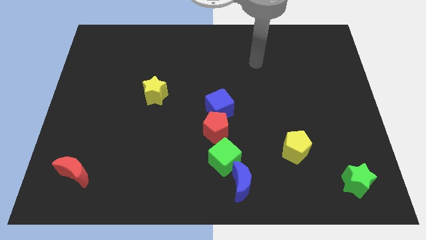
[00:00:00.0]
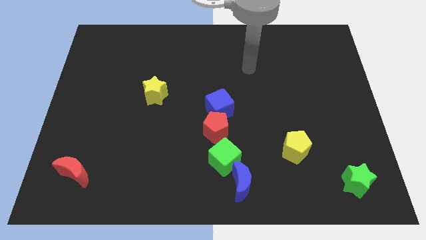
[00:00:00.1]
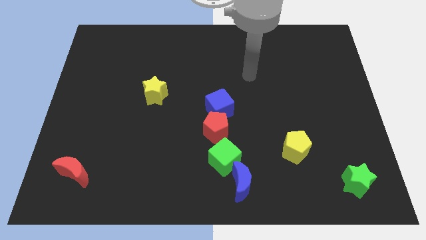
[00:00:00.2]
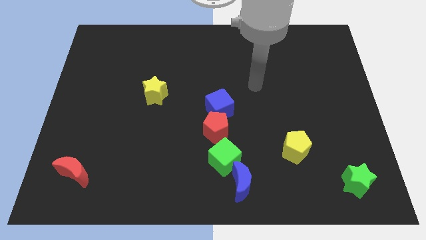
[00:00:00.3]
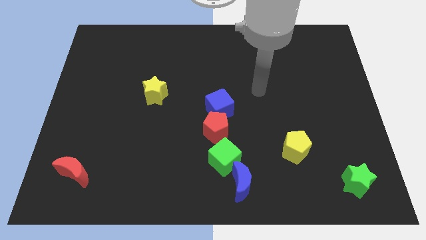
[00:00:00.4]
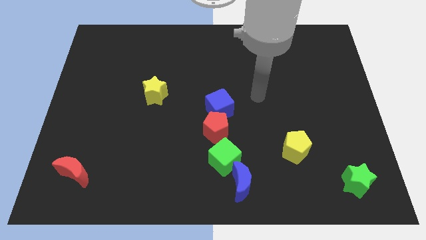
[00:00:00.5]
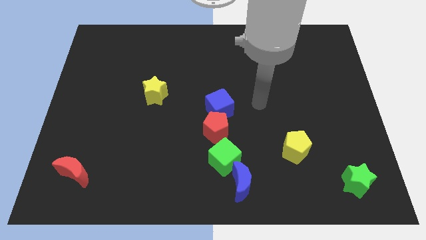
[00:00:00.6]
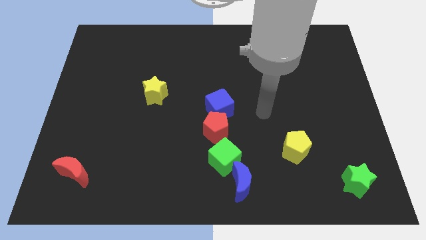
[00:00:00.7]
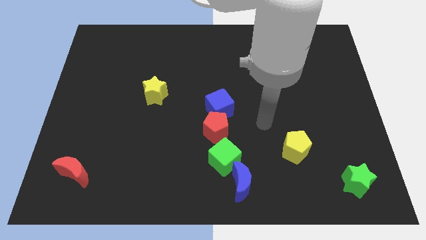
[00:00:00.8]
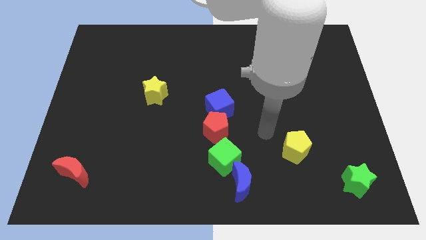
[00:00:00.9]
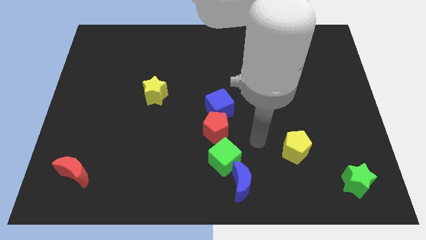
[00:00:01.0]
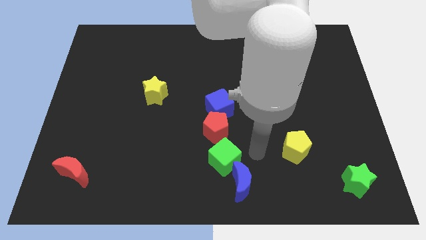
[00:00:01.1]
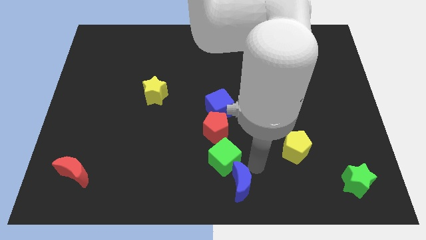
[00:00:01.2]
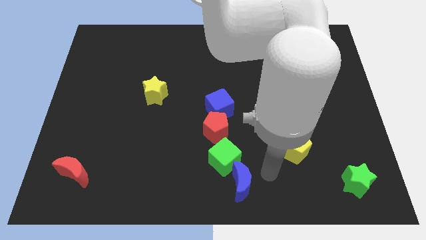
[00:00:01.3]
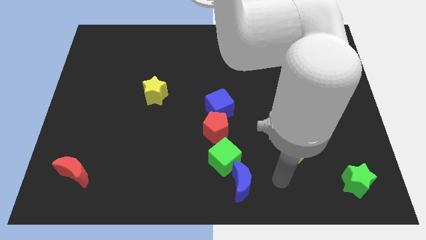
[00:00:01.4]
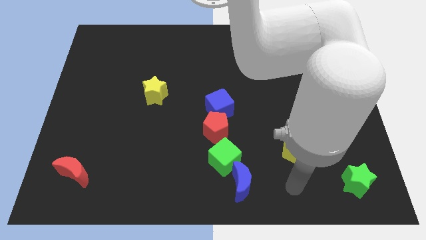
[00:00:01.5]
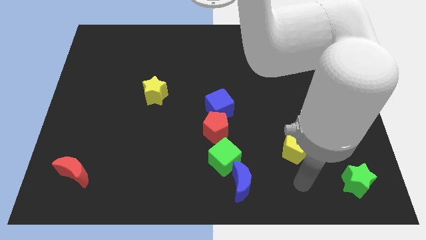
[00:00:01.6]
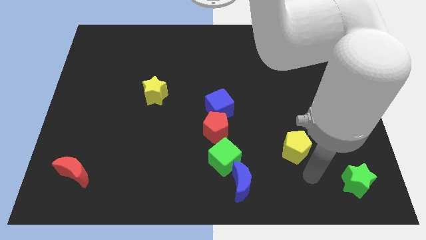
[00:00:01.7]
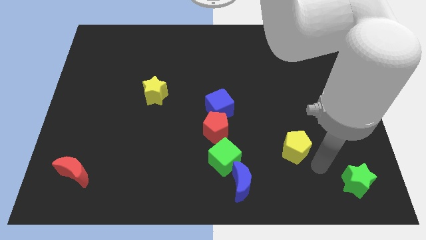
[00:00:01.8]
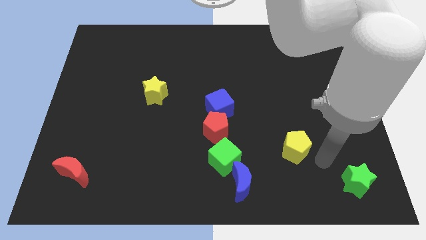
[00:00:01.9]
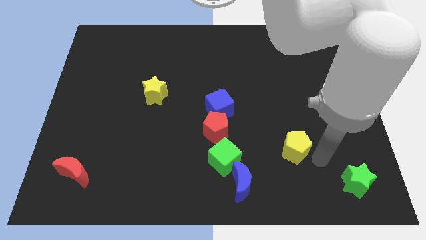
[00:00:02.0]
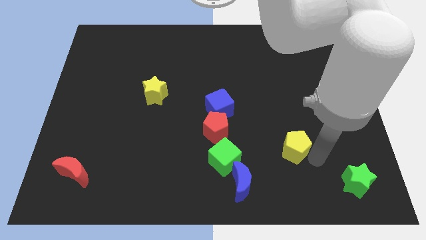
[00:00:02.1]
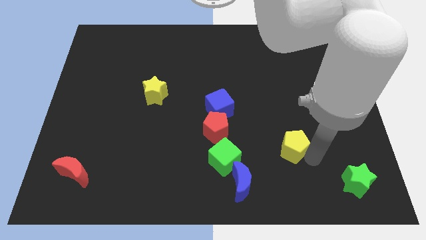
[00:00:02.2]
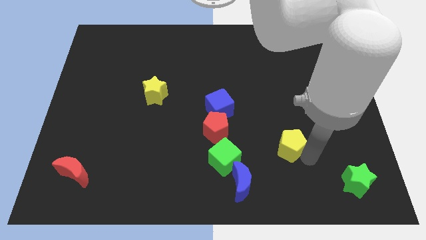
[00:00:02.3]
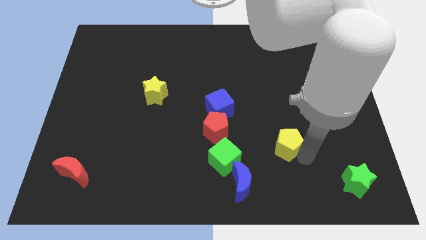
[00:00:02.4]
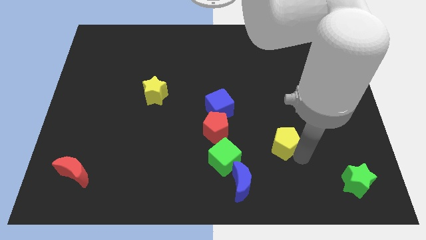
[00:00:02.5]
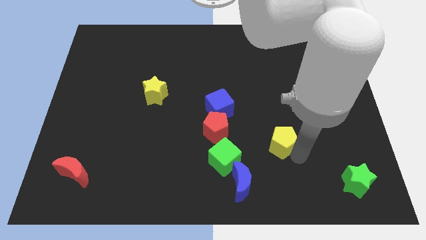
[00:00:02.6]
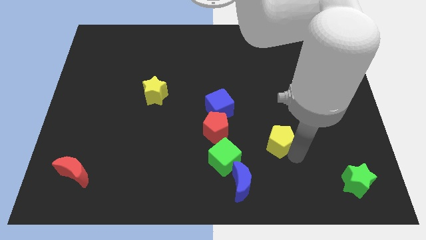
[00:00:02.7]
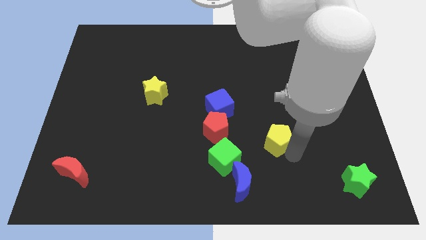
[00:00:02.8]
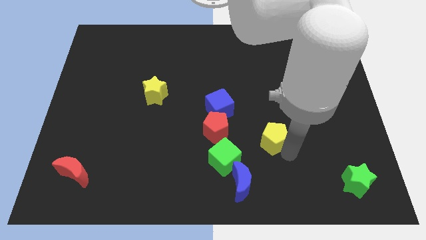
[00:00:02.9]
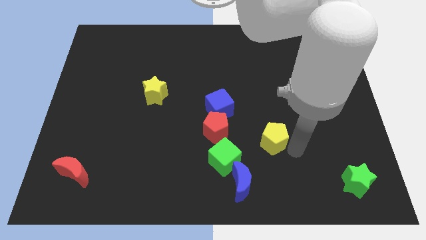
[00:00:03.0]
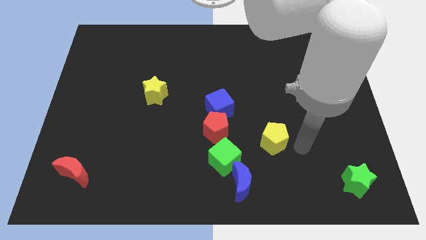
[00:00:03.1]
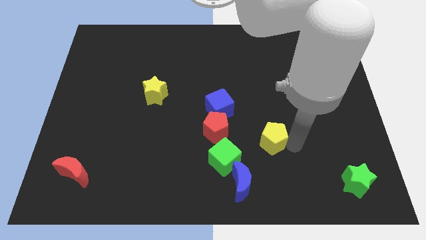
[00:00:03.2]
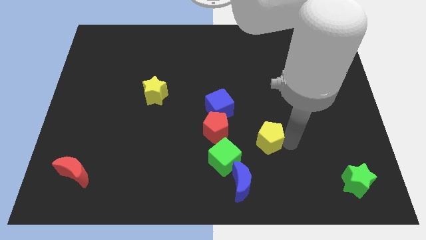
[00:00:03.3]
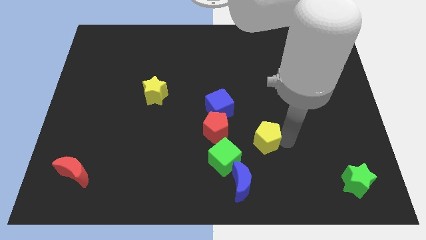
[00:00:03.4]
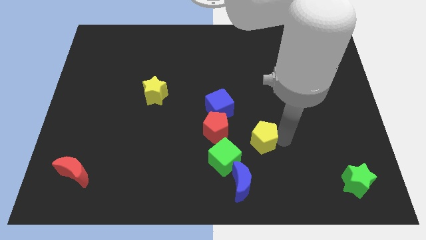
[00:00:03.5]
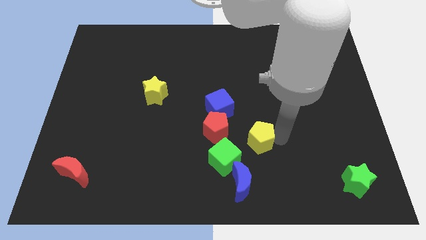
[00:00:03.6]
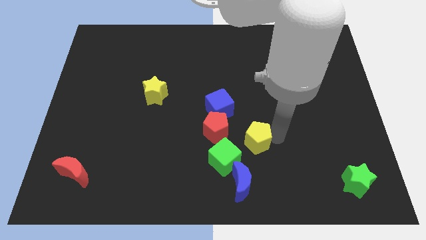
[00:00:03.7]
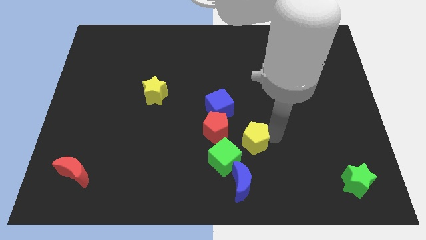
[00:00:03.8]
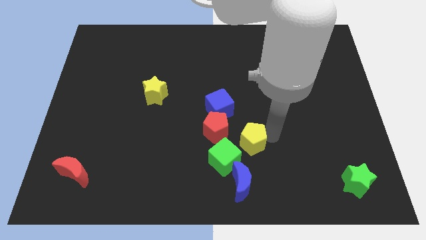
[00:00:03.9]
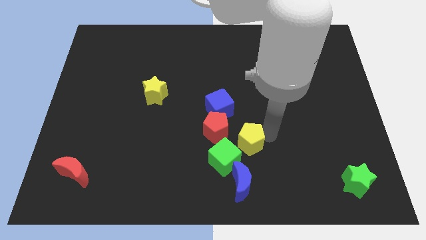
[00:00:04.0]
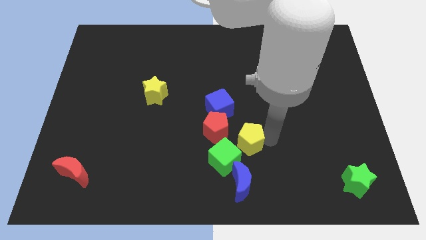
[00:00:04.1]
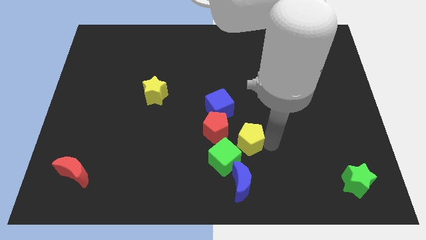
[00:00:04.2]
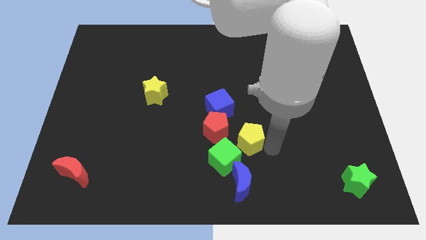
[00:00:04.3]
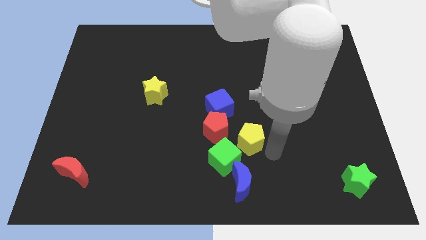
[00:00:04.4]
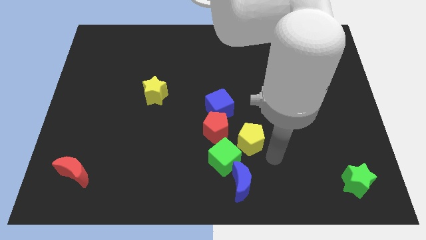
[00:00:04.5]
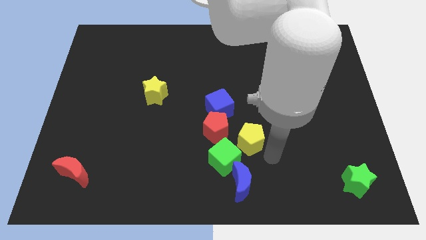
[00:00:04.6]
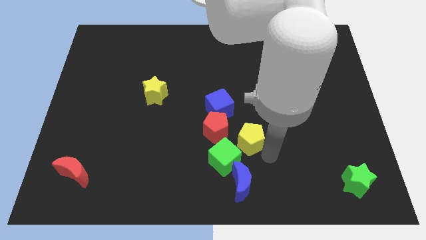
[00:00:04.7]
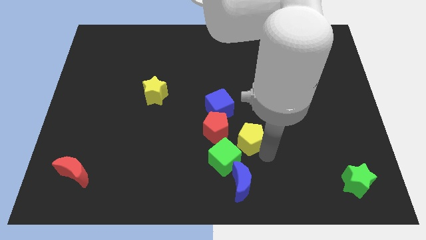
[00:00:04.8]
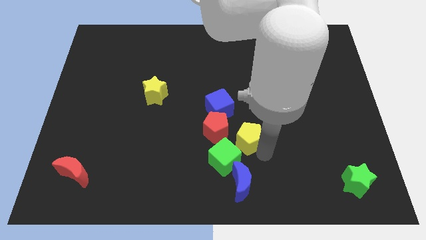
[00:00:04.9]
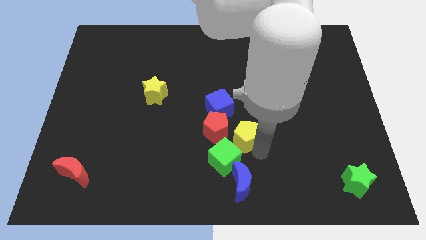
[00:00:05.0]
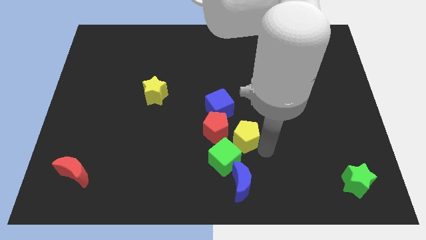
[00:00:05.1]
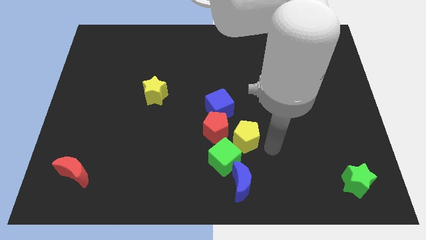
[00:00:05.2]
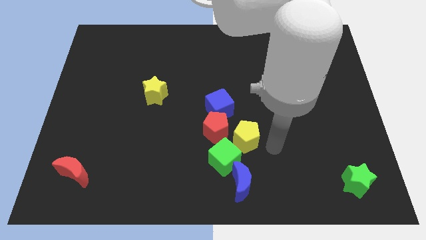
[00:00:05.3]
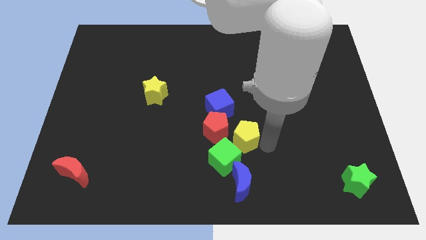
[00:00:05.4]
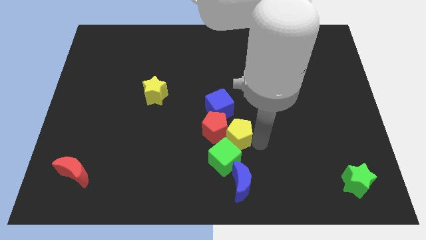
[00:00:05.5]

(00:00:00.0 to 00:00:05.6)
slide the yellow pentagon towards the red pentagon

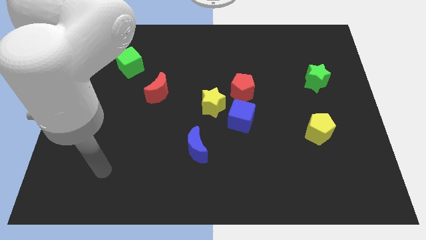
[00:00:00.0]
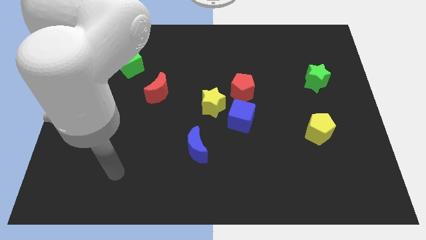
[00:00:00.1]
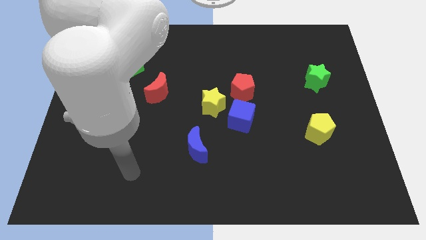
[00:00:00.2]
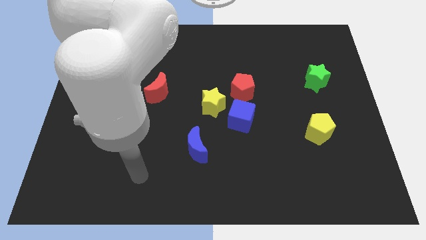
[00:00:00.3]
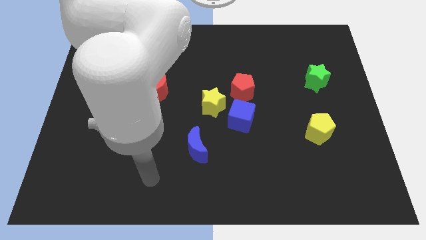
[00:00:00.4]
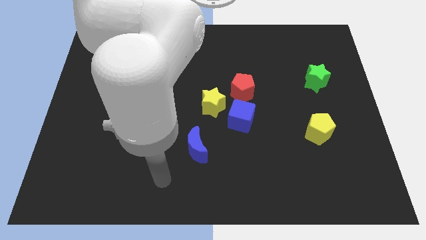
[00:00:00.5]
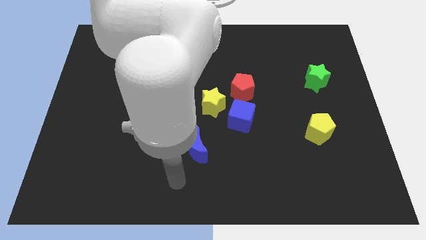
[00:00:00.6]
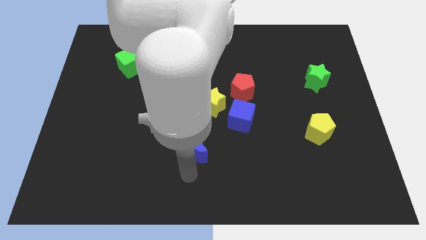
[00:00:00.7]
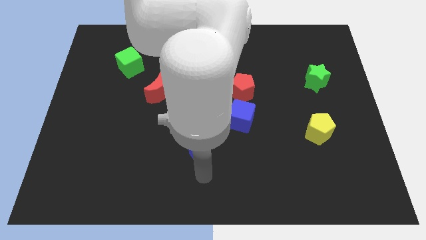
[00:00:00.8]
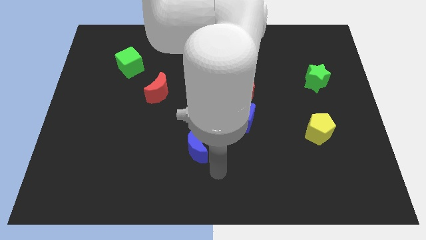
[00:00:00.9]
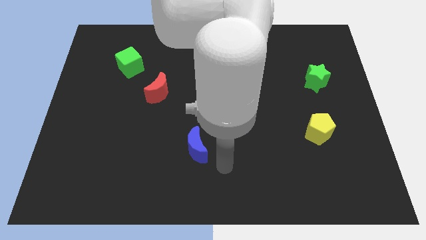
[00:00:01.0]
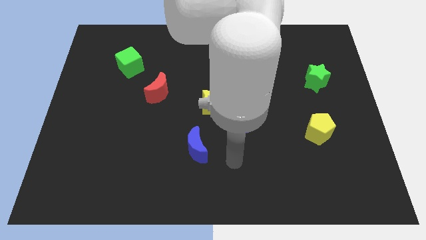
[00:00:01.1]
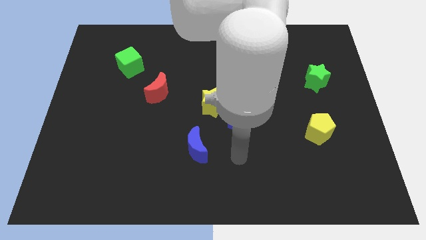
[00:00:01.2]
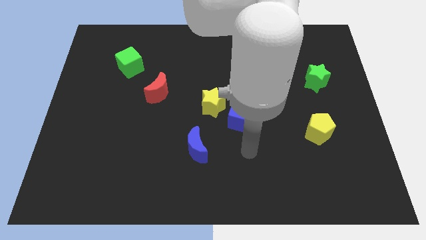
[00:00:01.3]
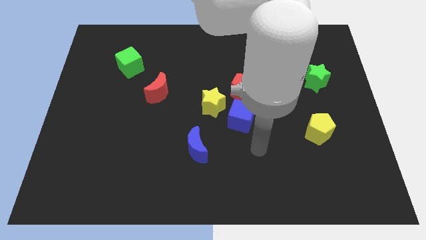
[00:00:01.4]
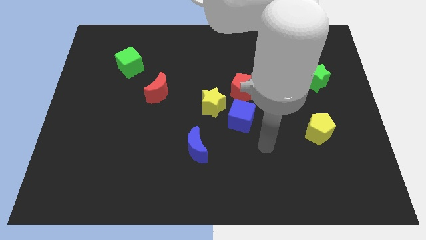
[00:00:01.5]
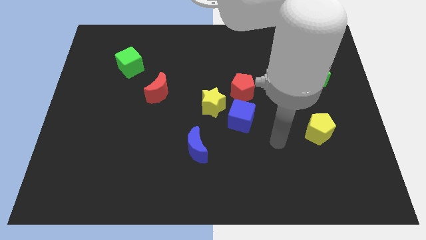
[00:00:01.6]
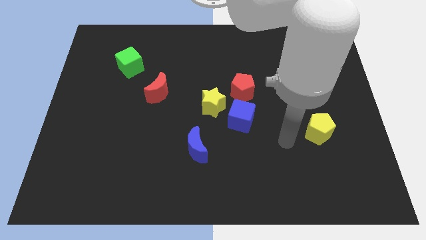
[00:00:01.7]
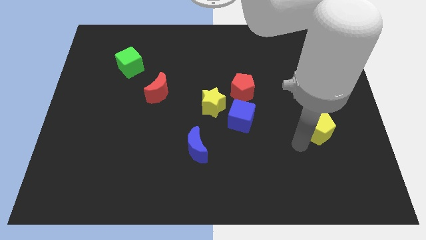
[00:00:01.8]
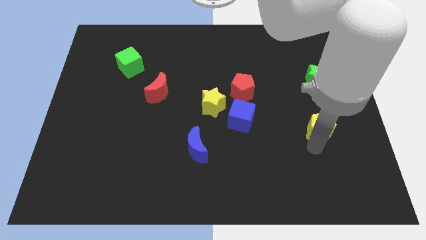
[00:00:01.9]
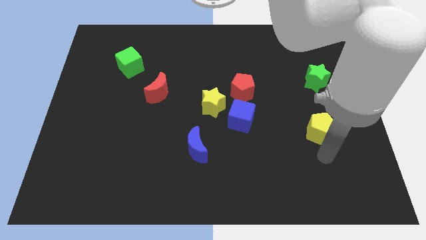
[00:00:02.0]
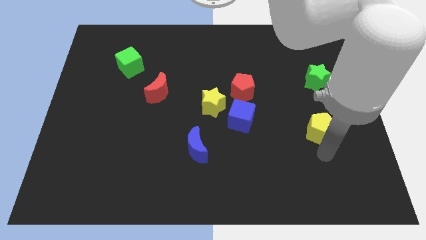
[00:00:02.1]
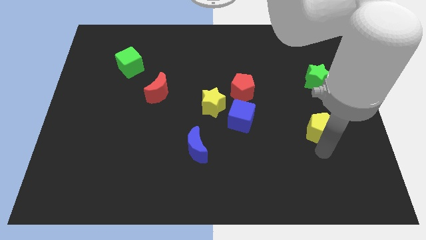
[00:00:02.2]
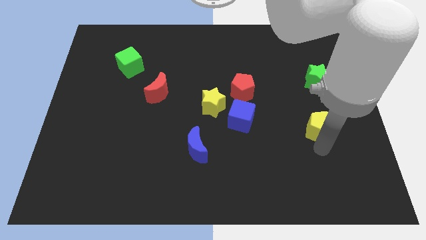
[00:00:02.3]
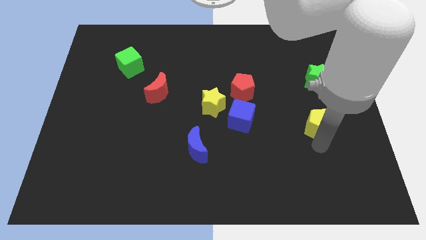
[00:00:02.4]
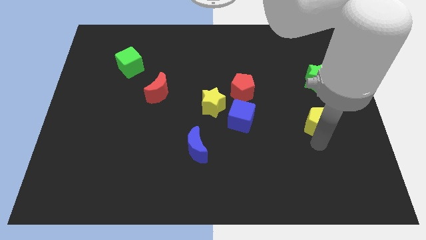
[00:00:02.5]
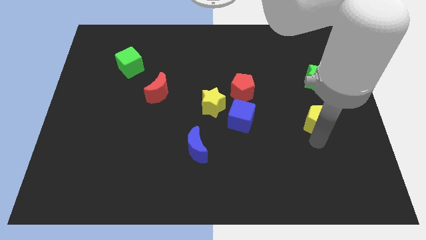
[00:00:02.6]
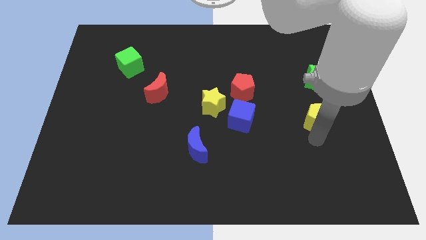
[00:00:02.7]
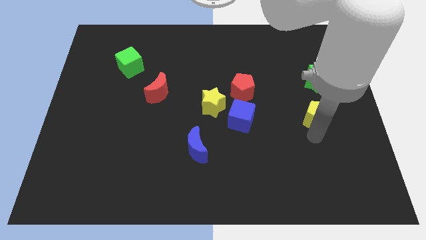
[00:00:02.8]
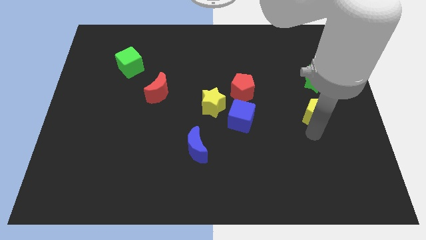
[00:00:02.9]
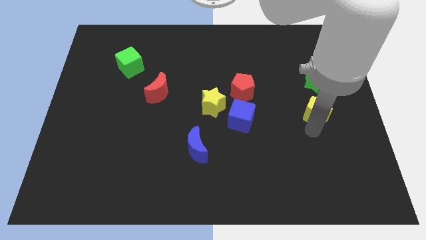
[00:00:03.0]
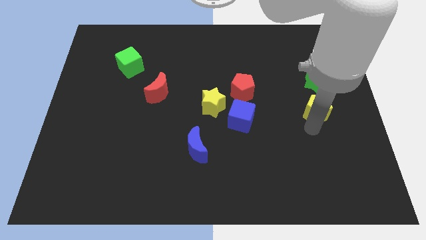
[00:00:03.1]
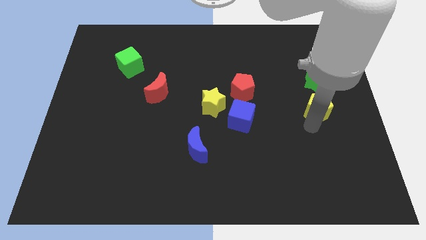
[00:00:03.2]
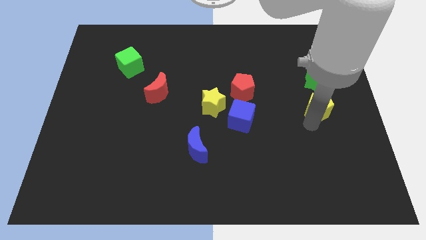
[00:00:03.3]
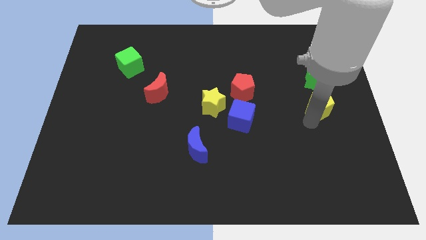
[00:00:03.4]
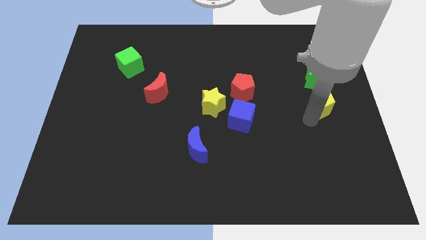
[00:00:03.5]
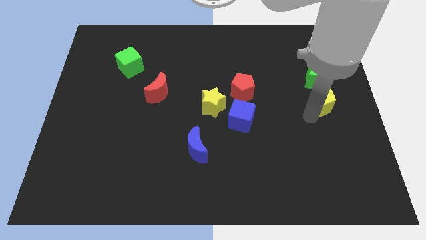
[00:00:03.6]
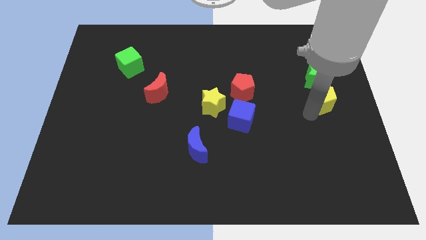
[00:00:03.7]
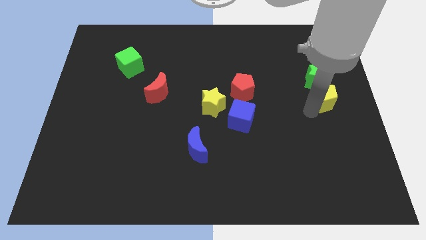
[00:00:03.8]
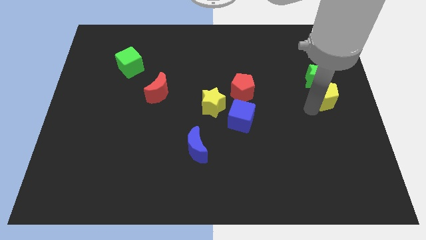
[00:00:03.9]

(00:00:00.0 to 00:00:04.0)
push the yellow pentagon next to the green star
